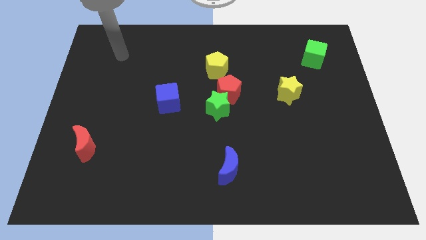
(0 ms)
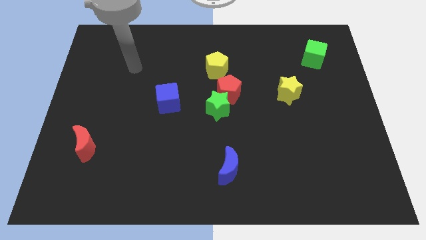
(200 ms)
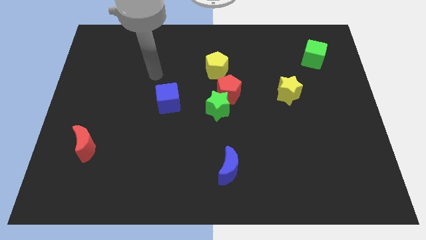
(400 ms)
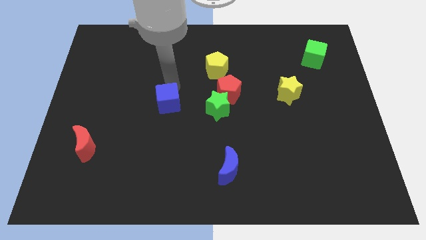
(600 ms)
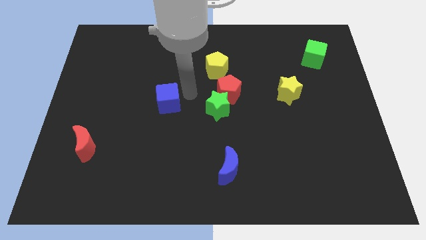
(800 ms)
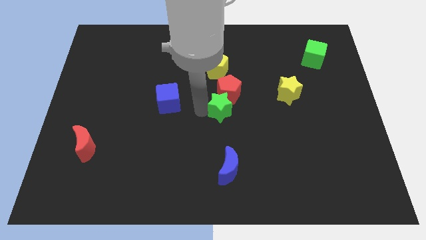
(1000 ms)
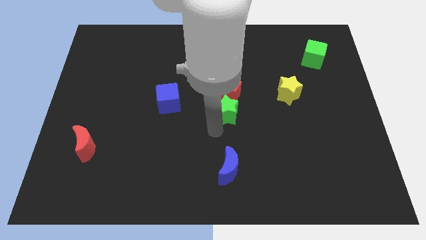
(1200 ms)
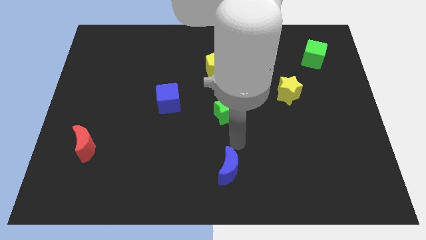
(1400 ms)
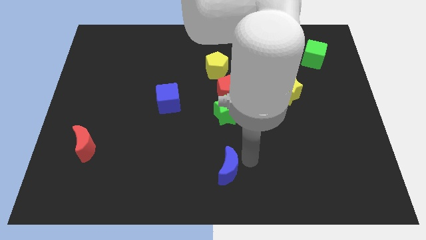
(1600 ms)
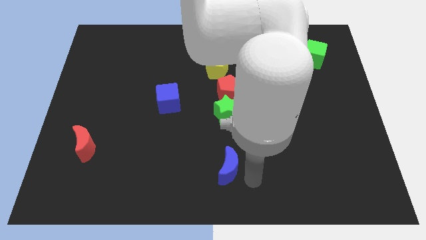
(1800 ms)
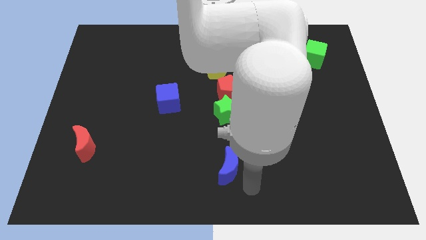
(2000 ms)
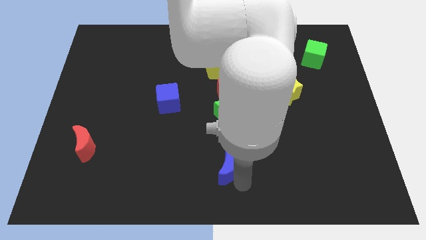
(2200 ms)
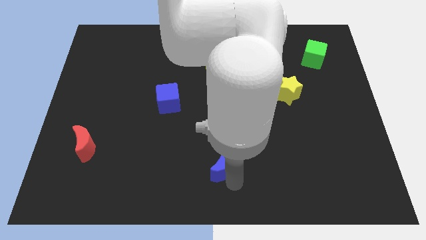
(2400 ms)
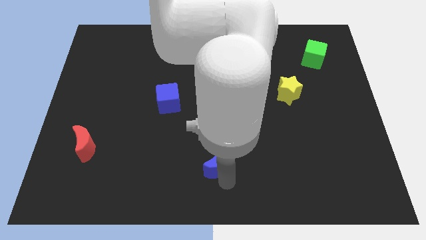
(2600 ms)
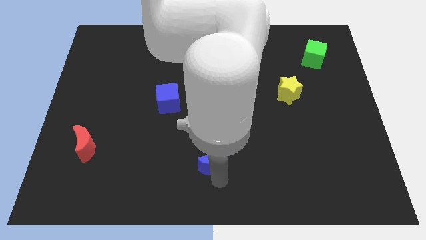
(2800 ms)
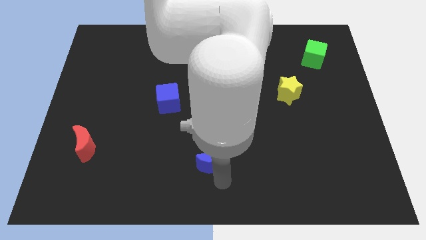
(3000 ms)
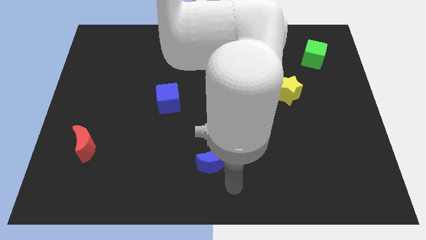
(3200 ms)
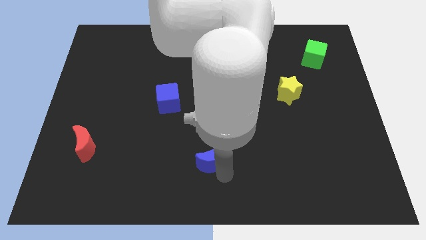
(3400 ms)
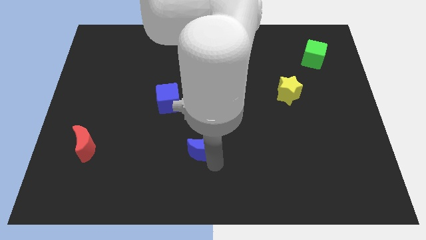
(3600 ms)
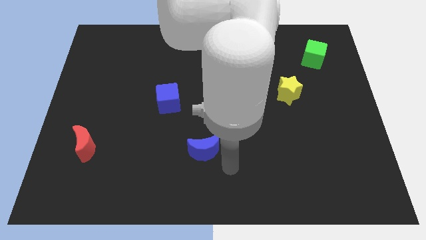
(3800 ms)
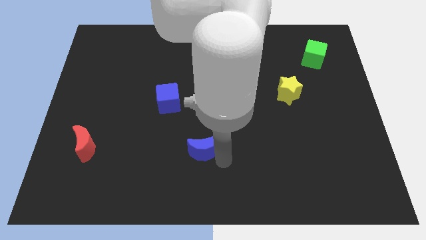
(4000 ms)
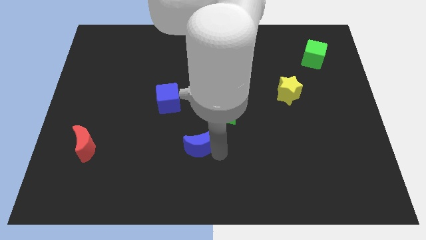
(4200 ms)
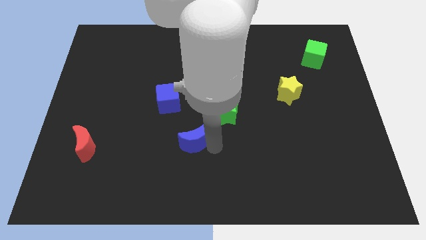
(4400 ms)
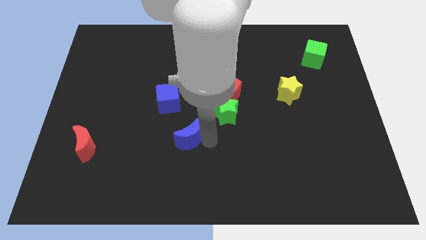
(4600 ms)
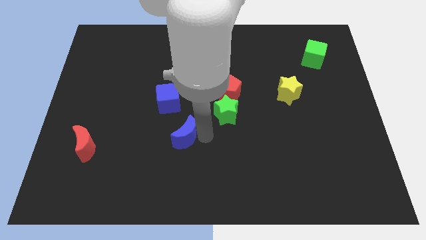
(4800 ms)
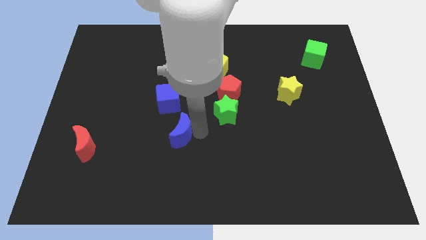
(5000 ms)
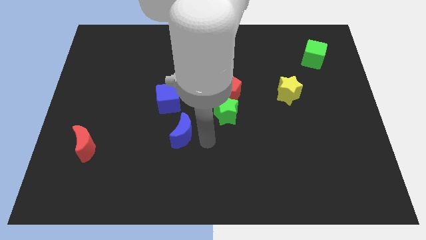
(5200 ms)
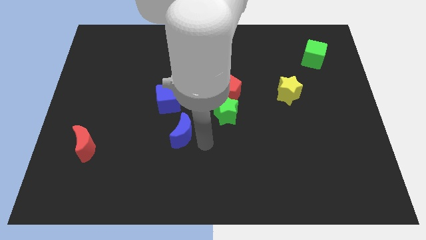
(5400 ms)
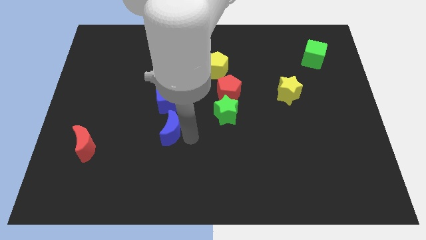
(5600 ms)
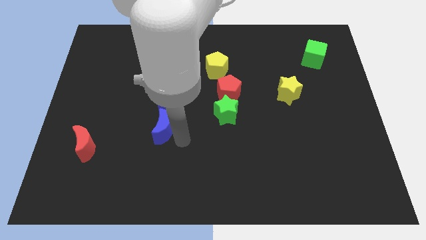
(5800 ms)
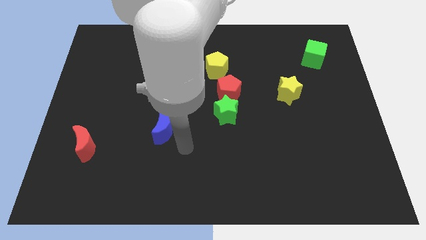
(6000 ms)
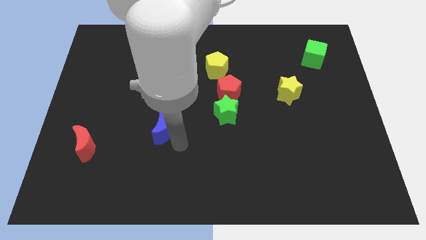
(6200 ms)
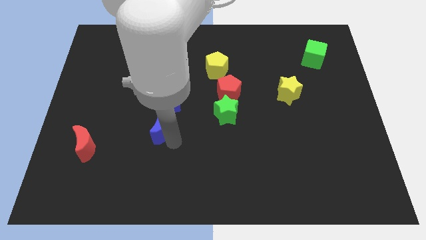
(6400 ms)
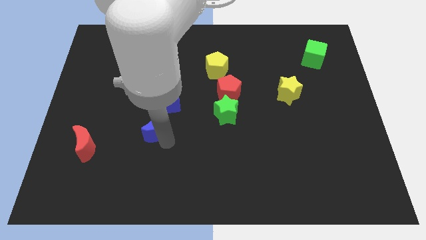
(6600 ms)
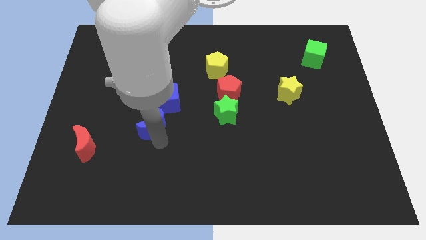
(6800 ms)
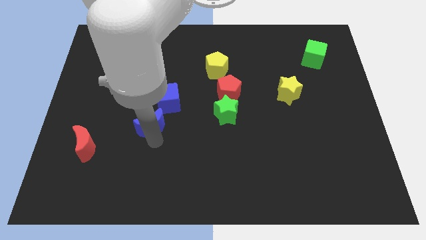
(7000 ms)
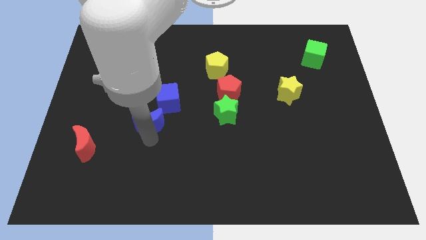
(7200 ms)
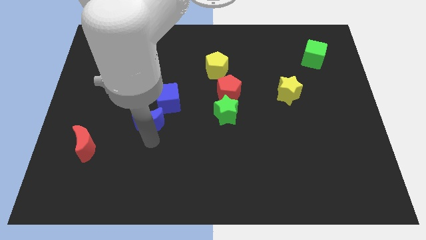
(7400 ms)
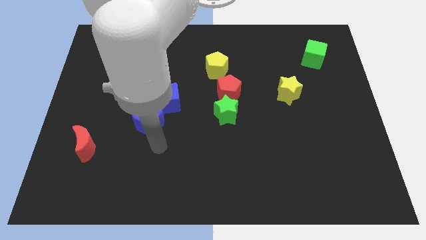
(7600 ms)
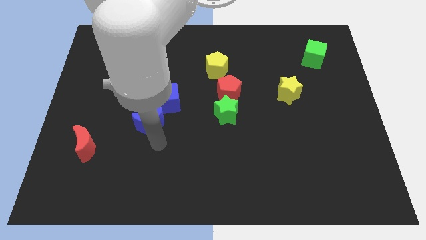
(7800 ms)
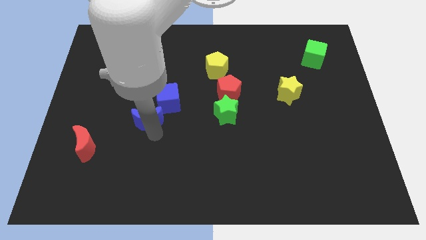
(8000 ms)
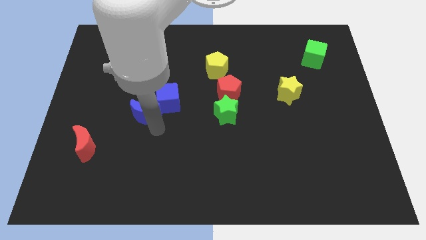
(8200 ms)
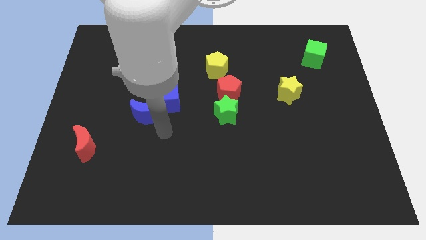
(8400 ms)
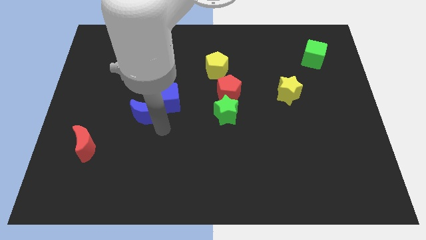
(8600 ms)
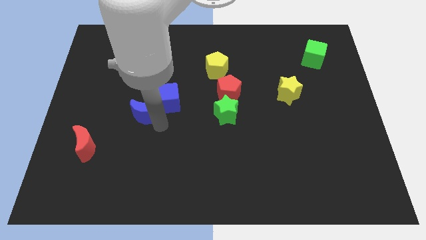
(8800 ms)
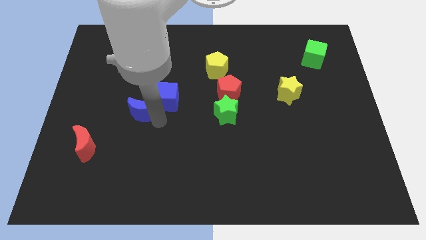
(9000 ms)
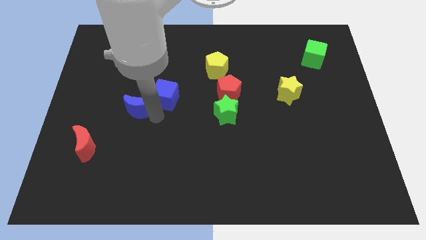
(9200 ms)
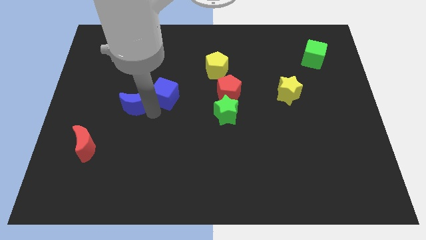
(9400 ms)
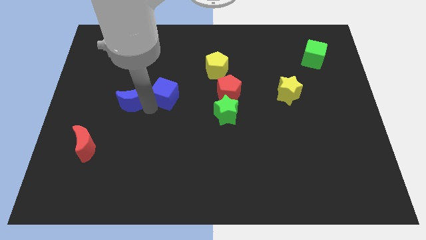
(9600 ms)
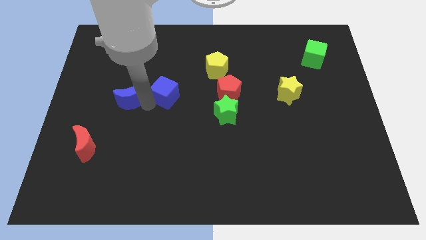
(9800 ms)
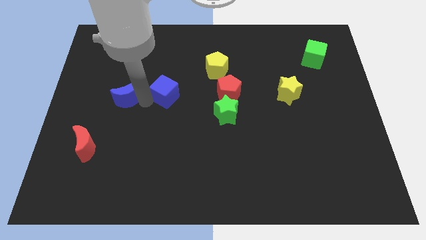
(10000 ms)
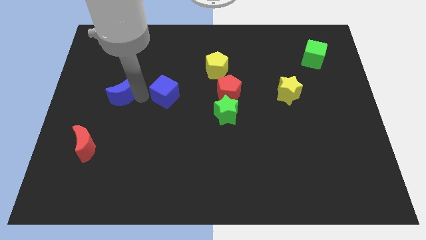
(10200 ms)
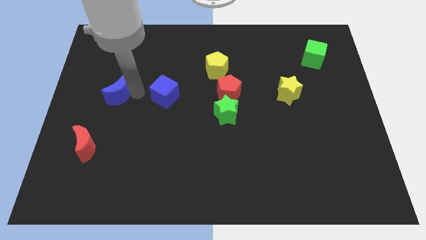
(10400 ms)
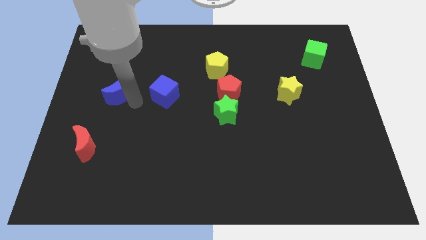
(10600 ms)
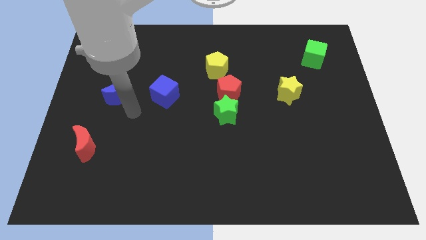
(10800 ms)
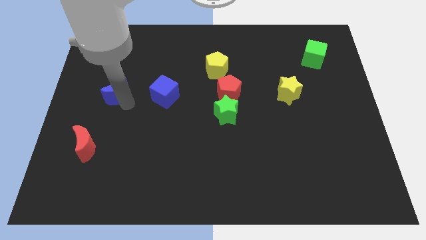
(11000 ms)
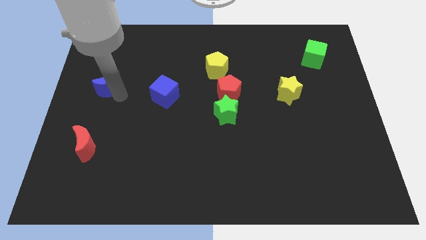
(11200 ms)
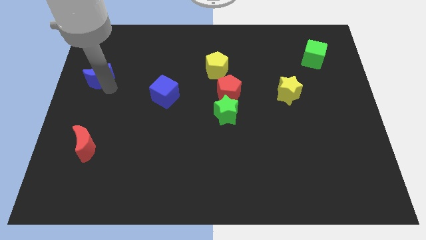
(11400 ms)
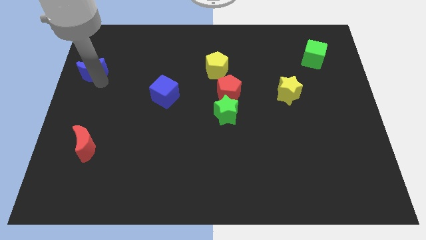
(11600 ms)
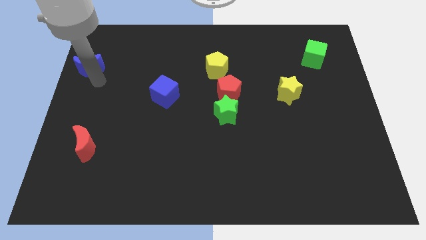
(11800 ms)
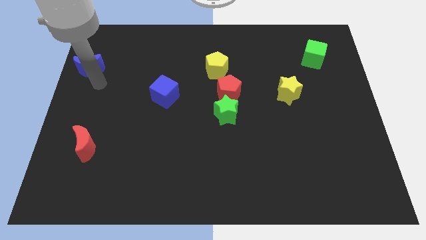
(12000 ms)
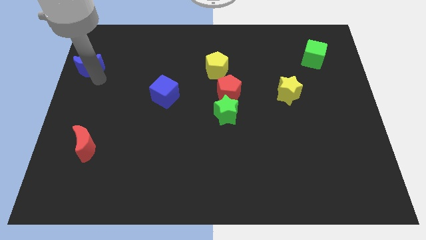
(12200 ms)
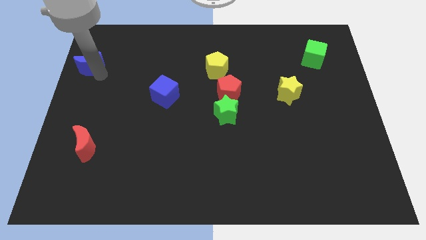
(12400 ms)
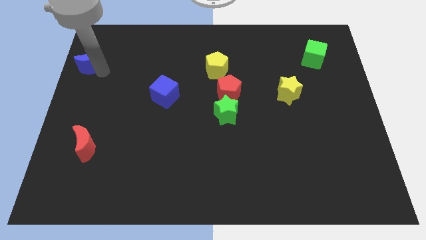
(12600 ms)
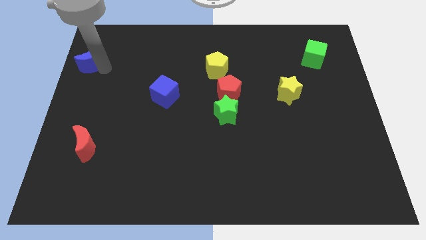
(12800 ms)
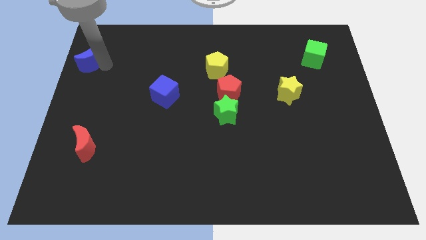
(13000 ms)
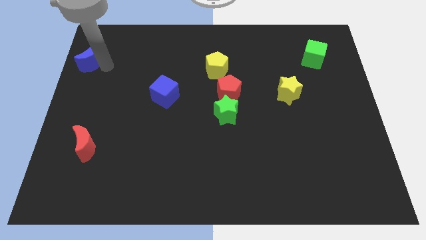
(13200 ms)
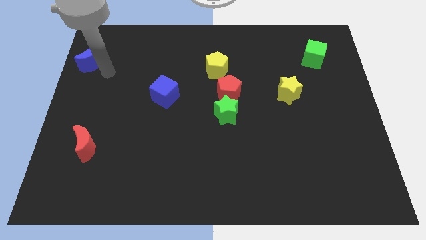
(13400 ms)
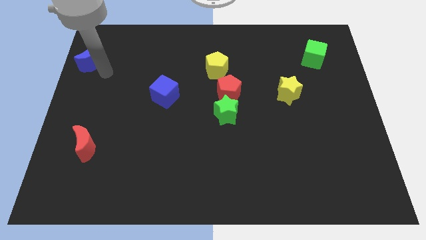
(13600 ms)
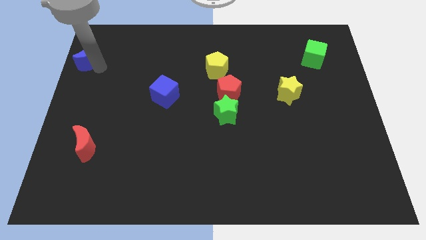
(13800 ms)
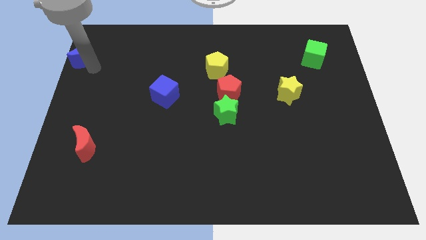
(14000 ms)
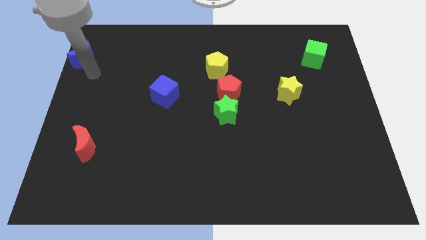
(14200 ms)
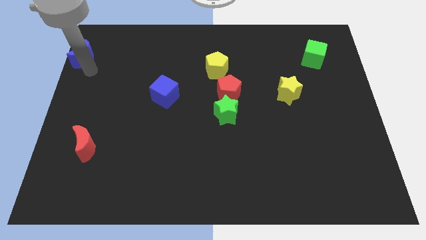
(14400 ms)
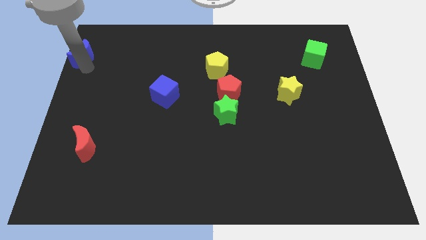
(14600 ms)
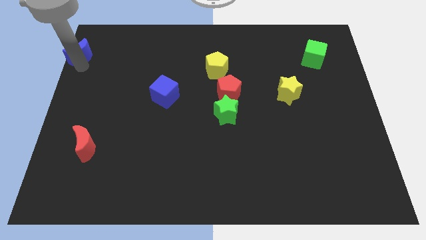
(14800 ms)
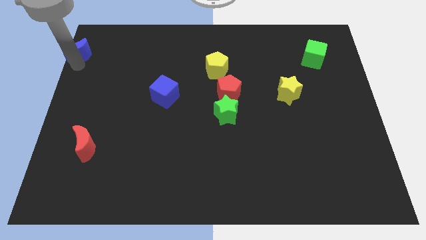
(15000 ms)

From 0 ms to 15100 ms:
push the blue moon to the top left of the board
